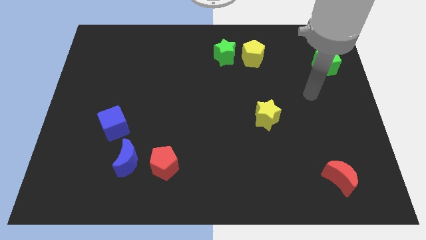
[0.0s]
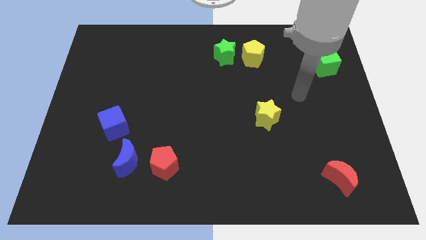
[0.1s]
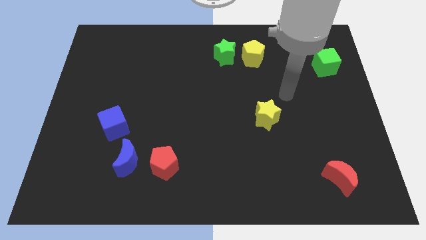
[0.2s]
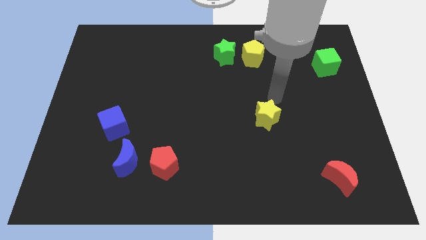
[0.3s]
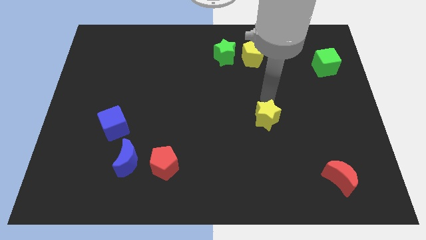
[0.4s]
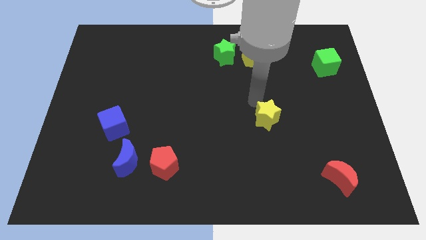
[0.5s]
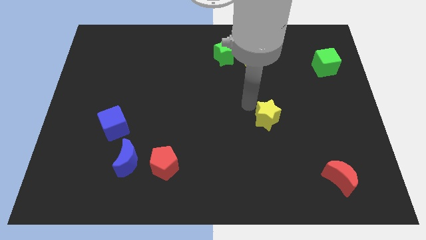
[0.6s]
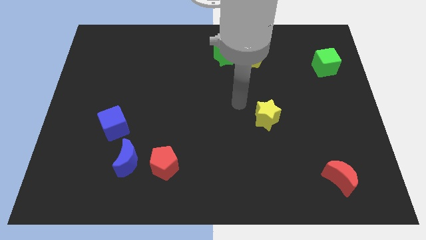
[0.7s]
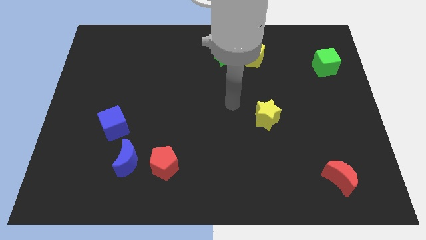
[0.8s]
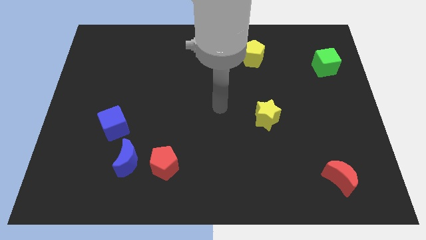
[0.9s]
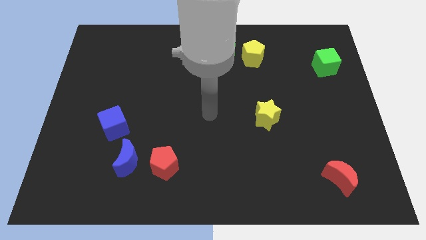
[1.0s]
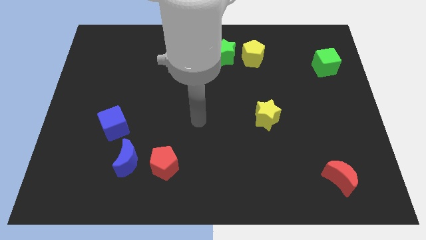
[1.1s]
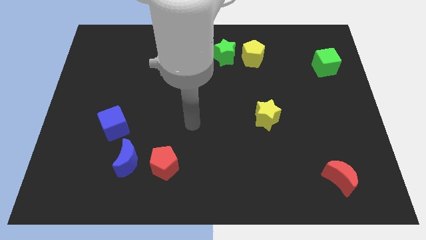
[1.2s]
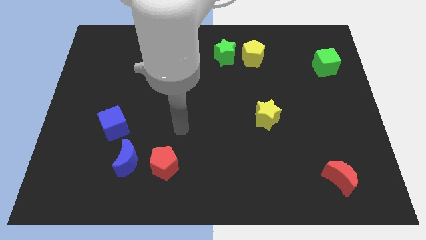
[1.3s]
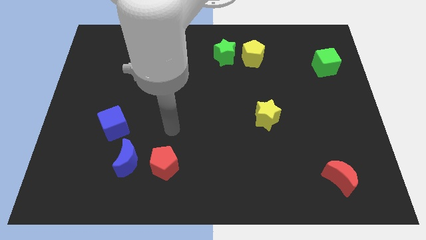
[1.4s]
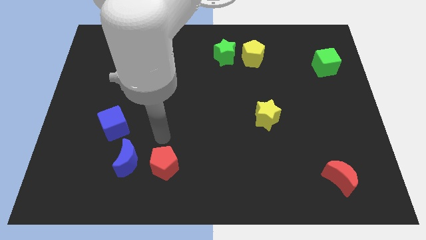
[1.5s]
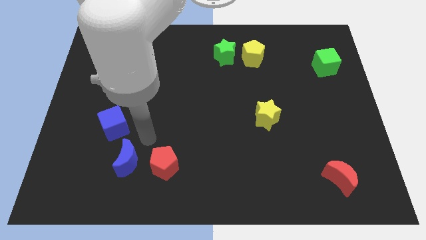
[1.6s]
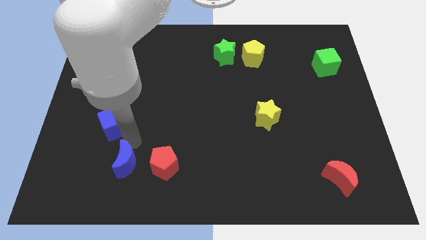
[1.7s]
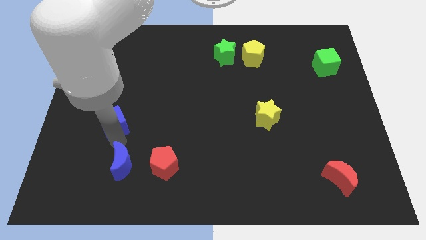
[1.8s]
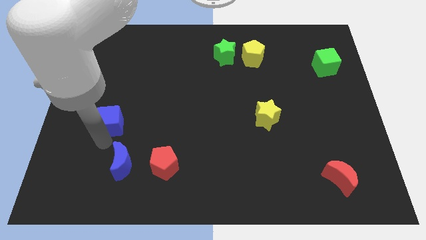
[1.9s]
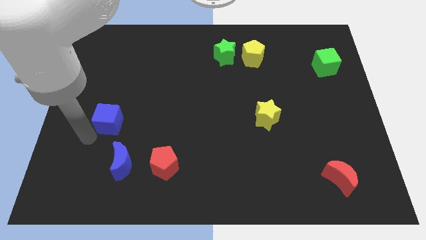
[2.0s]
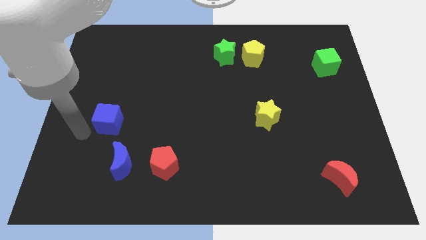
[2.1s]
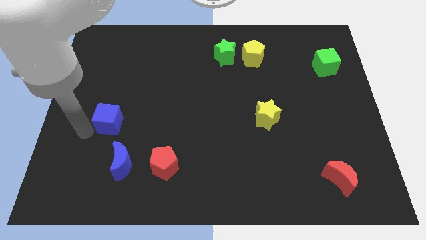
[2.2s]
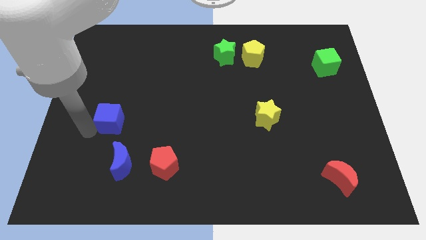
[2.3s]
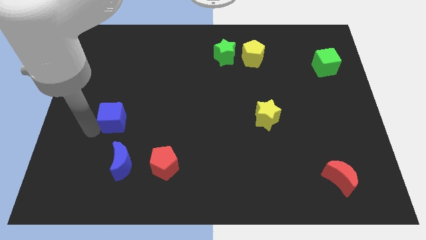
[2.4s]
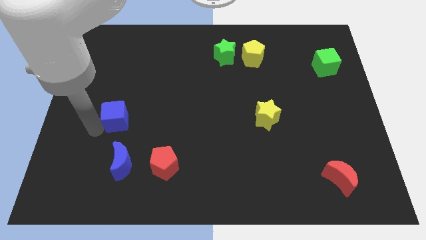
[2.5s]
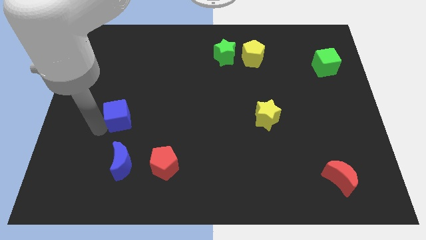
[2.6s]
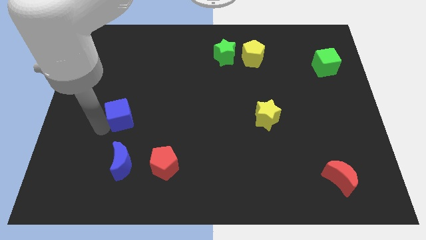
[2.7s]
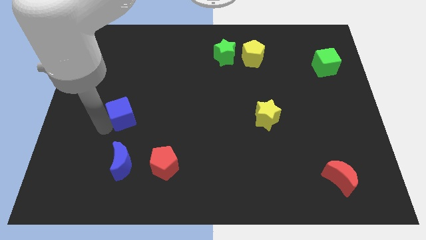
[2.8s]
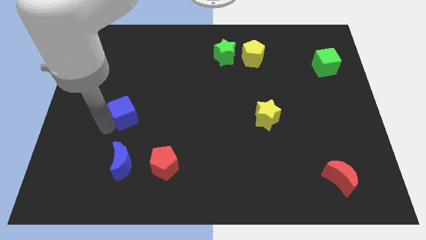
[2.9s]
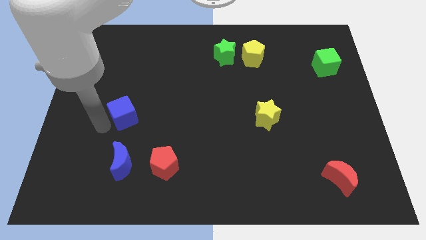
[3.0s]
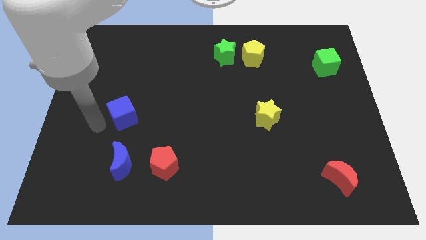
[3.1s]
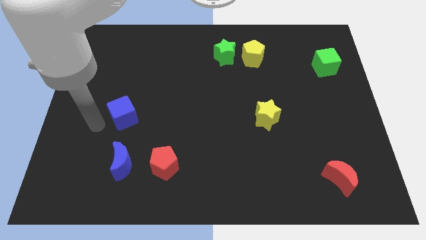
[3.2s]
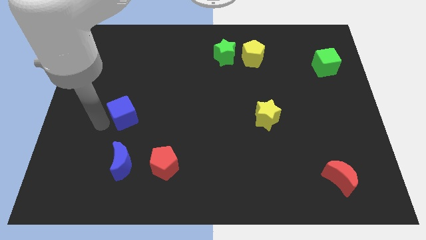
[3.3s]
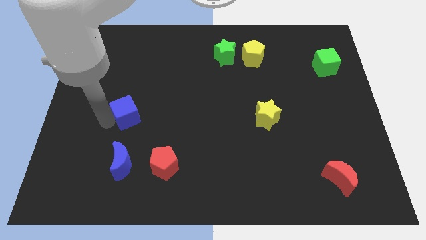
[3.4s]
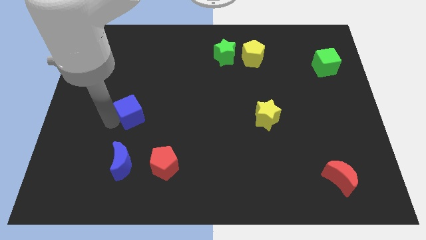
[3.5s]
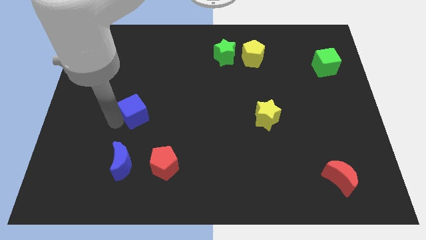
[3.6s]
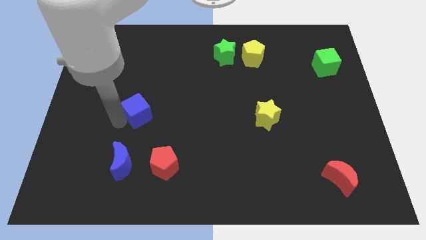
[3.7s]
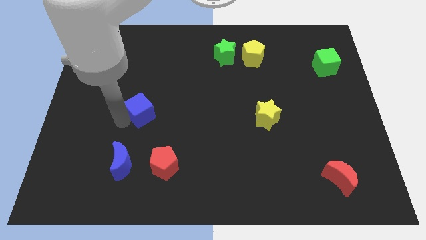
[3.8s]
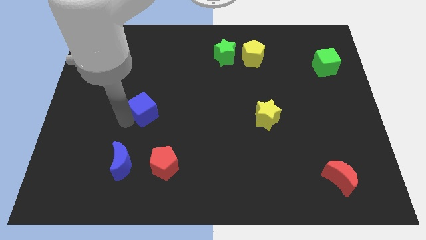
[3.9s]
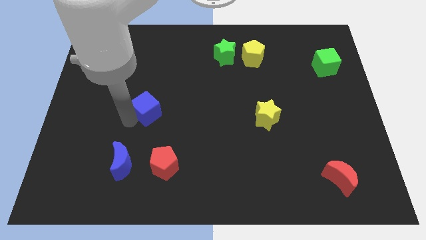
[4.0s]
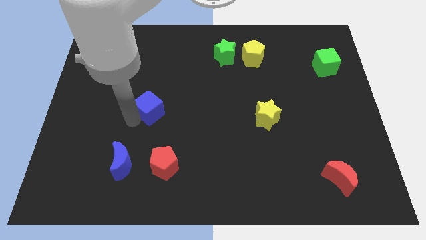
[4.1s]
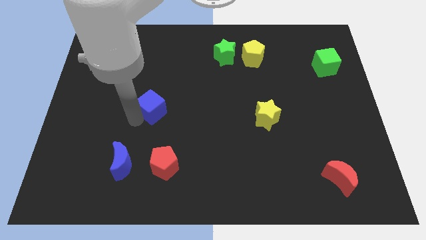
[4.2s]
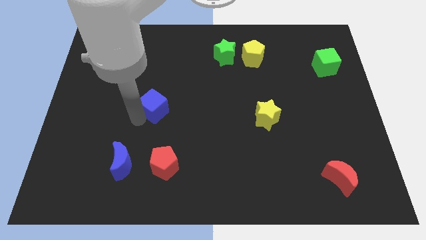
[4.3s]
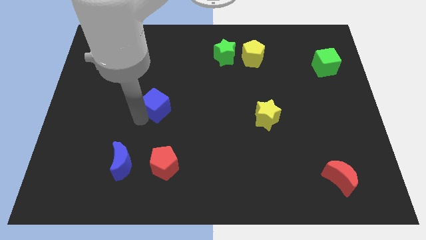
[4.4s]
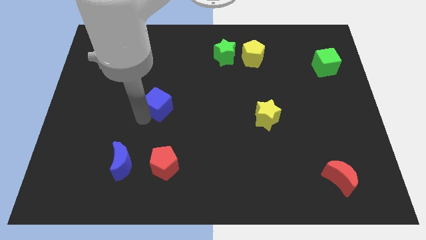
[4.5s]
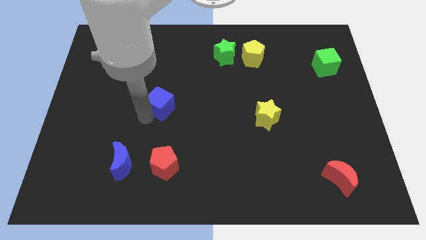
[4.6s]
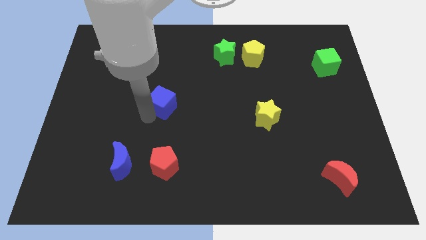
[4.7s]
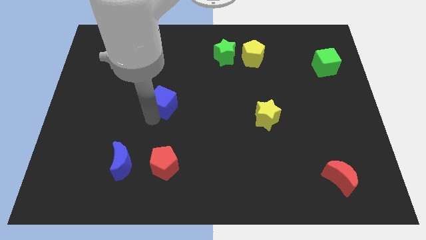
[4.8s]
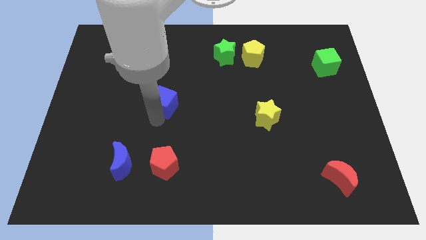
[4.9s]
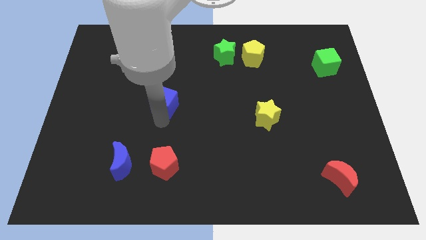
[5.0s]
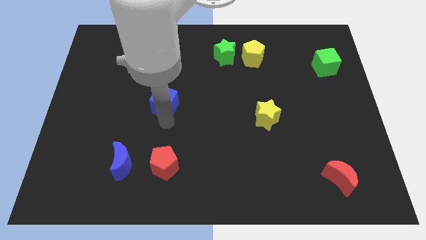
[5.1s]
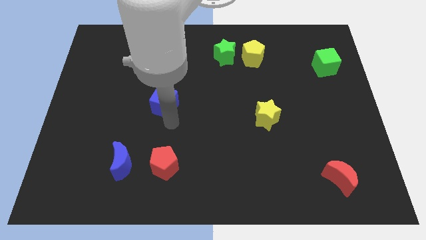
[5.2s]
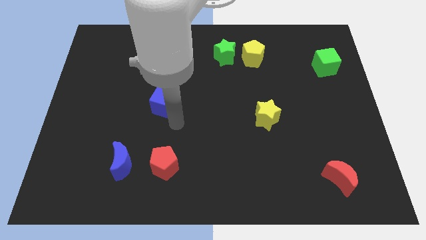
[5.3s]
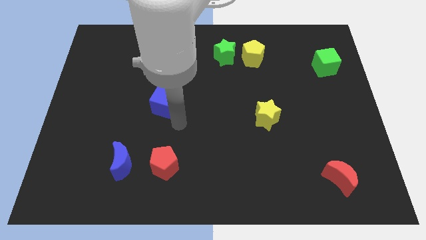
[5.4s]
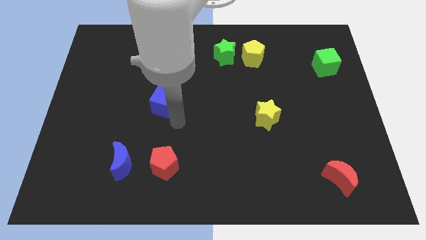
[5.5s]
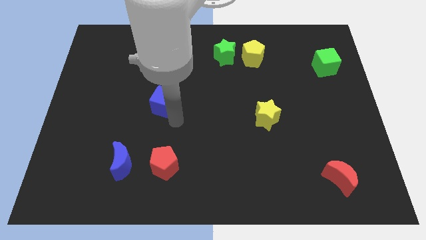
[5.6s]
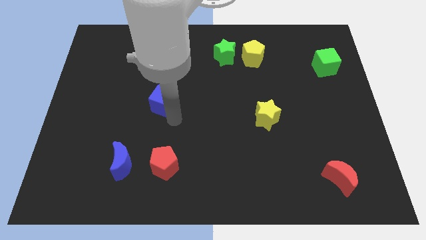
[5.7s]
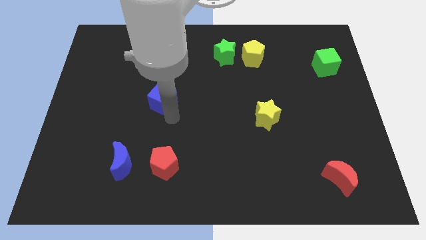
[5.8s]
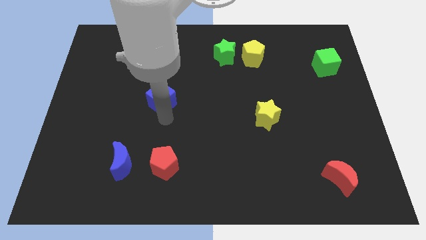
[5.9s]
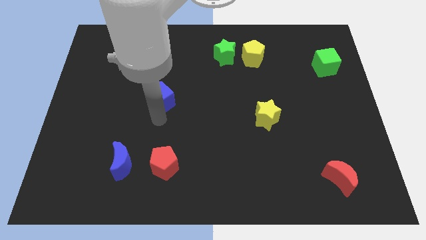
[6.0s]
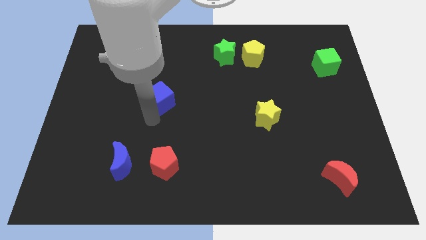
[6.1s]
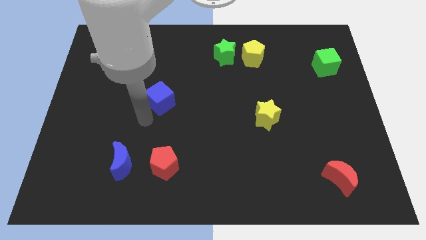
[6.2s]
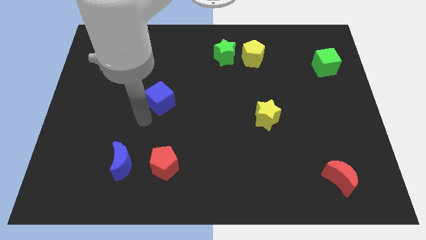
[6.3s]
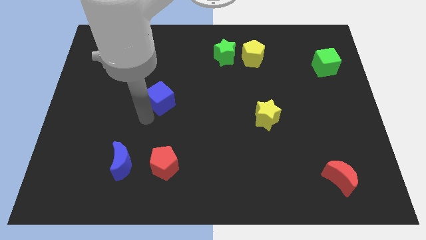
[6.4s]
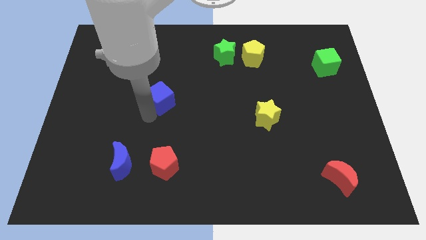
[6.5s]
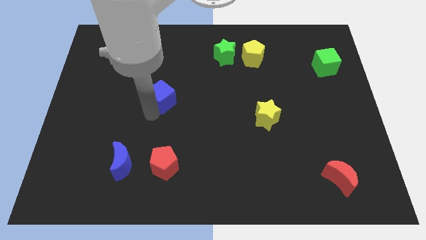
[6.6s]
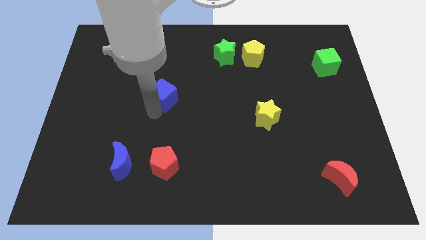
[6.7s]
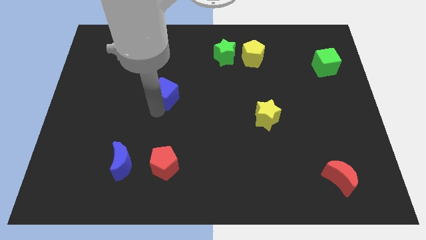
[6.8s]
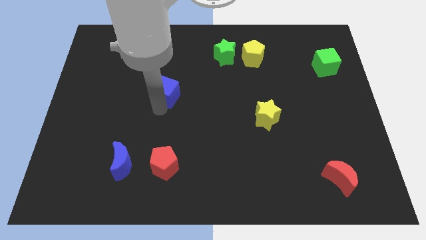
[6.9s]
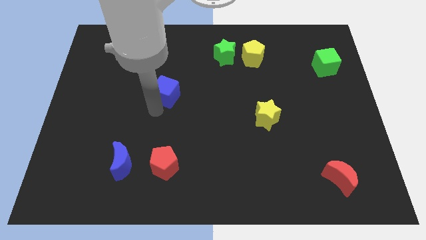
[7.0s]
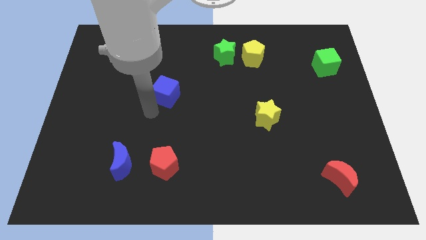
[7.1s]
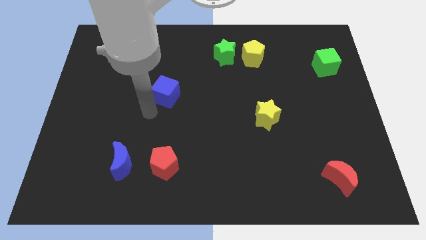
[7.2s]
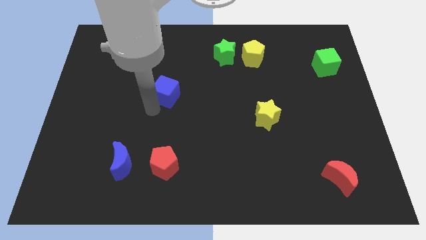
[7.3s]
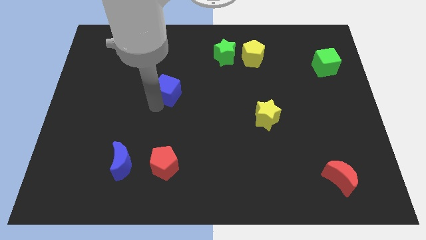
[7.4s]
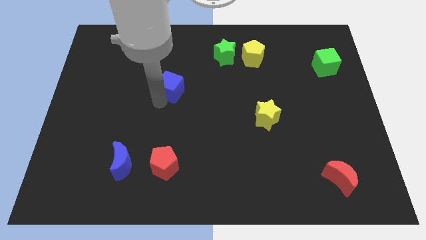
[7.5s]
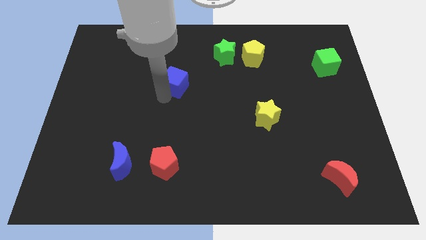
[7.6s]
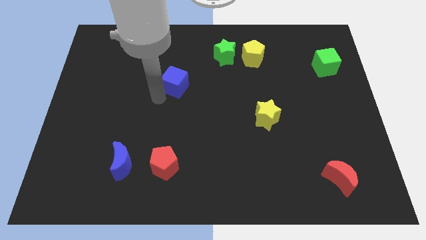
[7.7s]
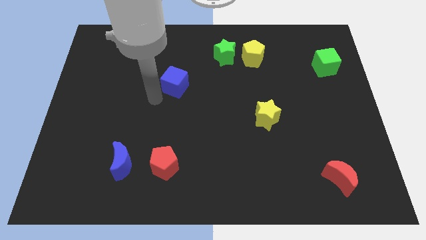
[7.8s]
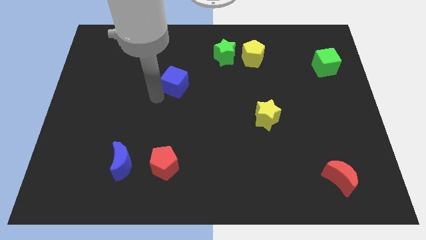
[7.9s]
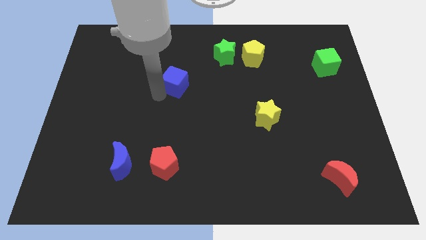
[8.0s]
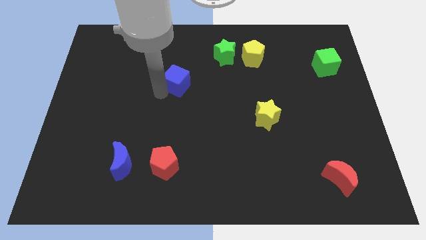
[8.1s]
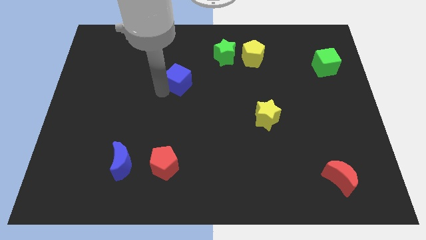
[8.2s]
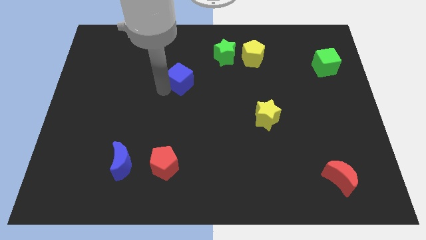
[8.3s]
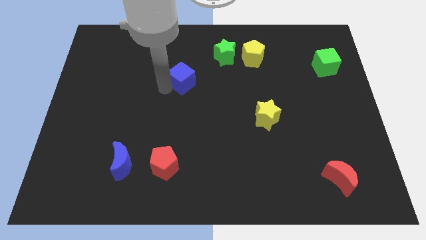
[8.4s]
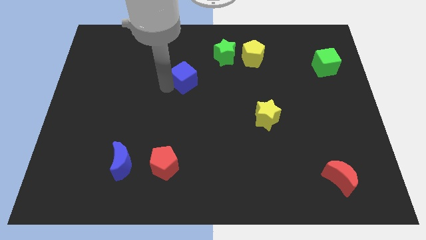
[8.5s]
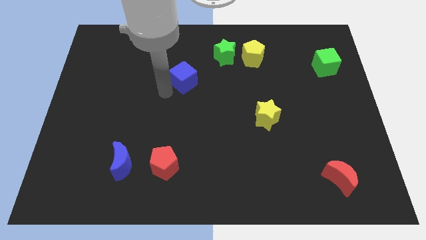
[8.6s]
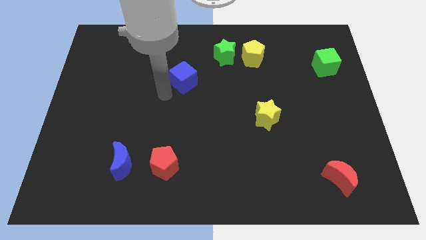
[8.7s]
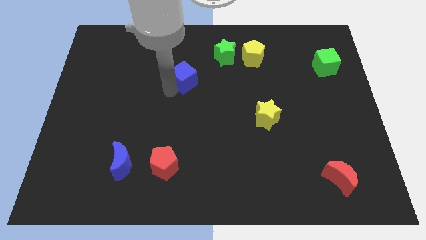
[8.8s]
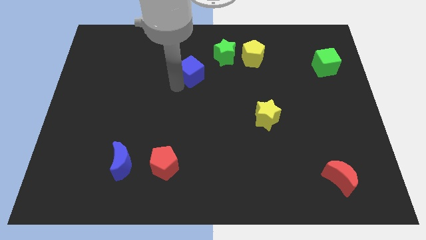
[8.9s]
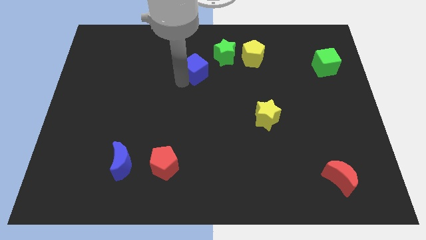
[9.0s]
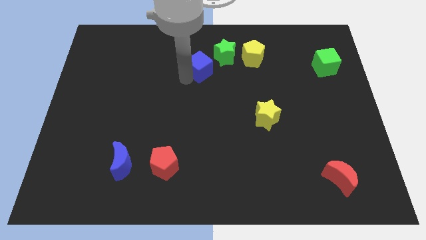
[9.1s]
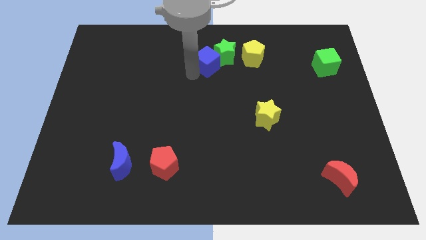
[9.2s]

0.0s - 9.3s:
push the blue cube close to the green star
